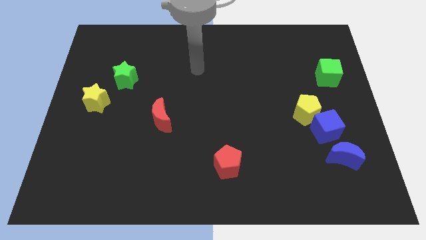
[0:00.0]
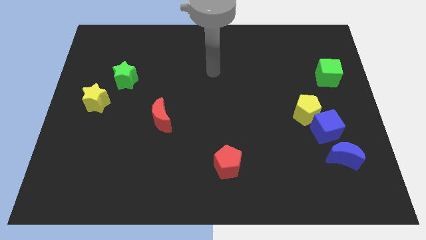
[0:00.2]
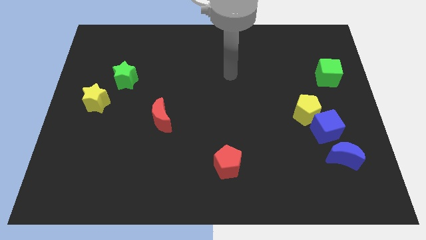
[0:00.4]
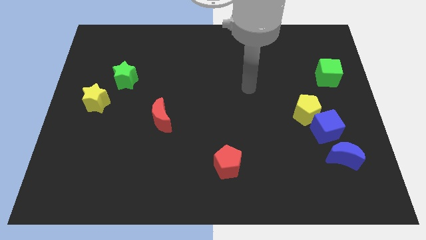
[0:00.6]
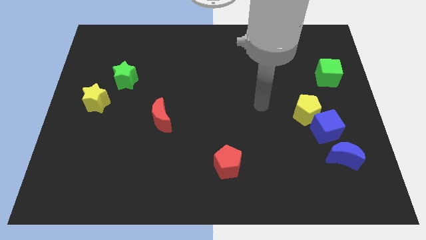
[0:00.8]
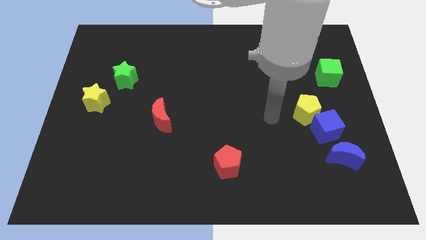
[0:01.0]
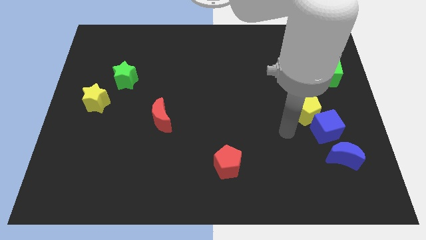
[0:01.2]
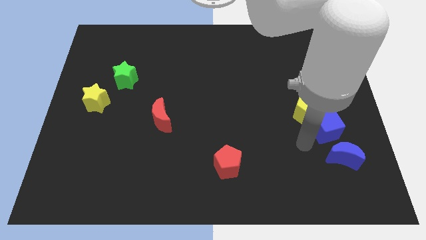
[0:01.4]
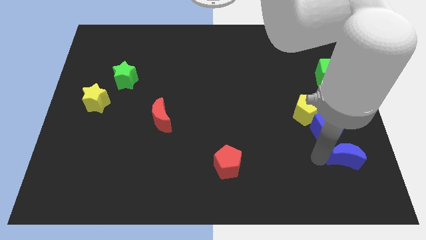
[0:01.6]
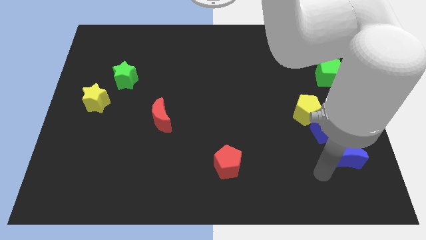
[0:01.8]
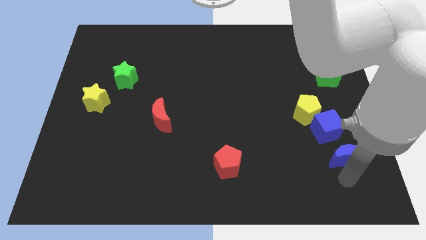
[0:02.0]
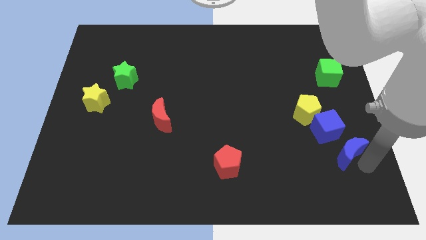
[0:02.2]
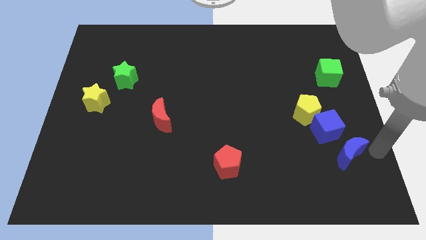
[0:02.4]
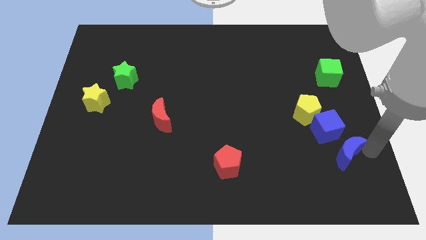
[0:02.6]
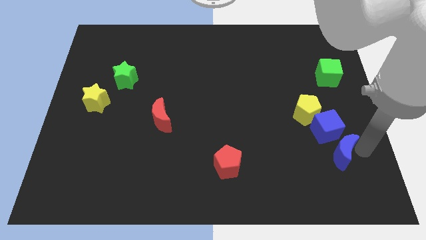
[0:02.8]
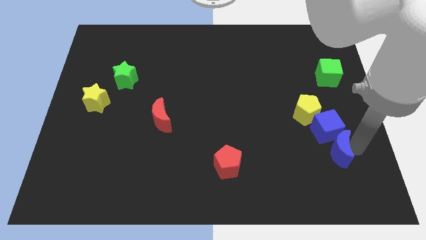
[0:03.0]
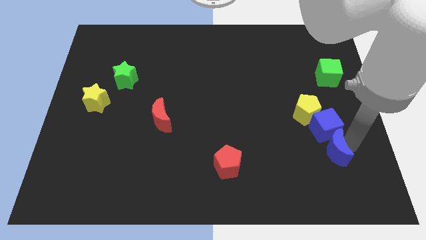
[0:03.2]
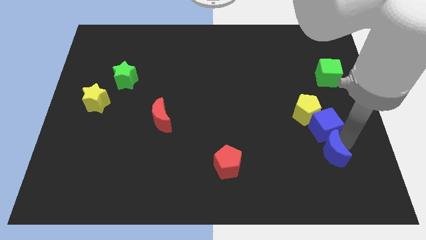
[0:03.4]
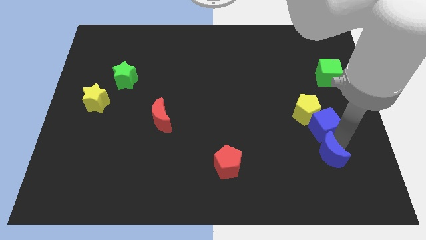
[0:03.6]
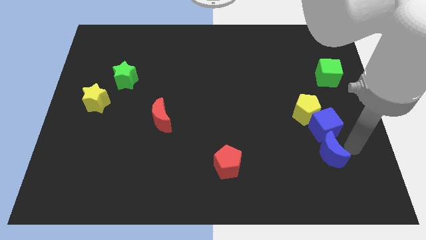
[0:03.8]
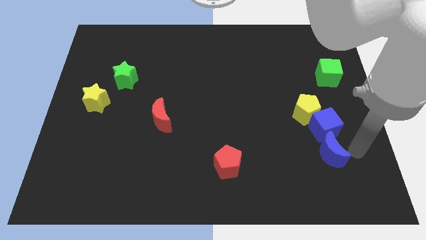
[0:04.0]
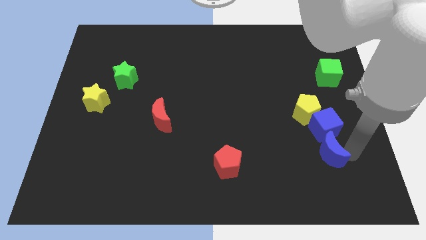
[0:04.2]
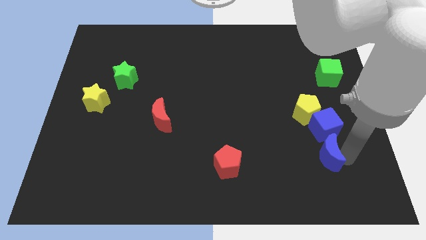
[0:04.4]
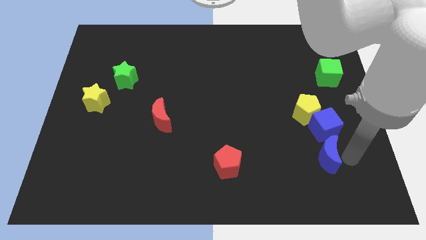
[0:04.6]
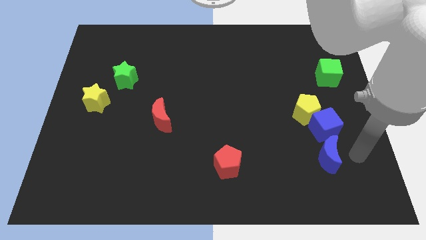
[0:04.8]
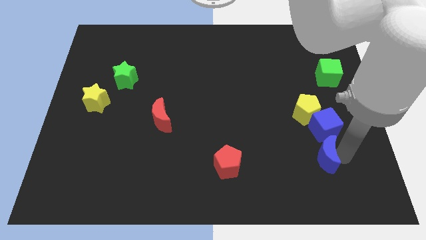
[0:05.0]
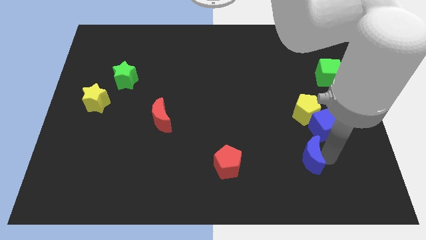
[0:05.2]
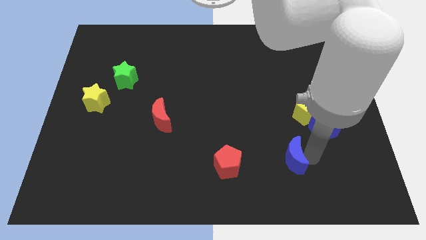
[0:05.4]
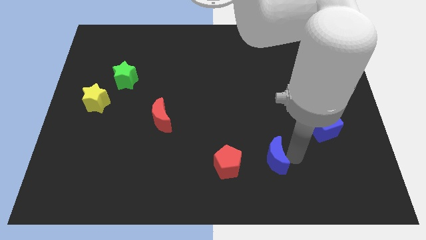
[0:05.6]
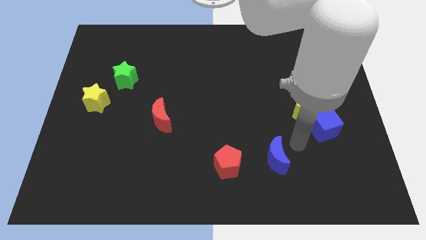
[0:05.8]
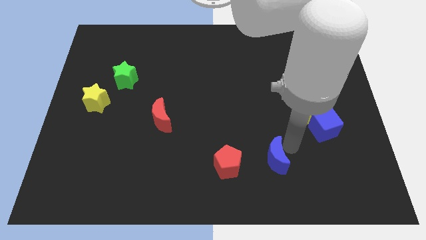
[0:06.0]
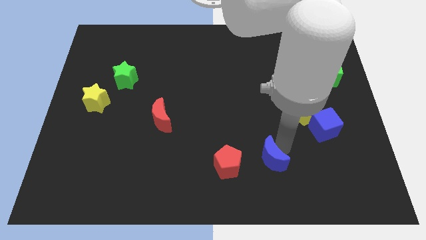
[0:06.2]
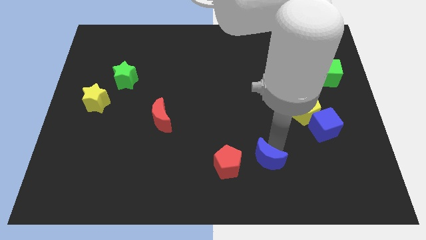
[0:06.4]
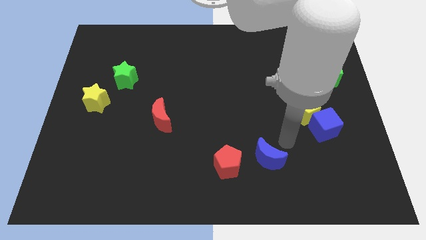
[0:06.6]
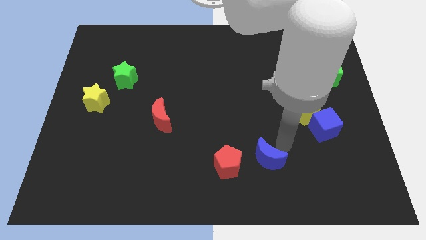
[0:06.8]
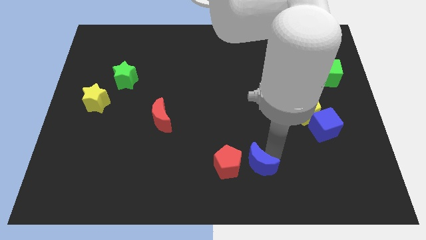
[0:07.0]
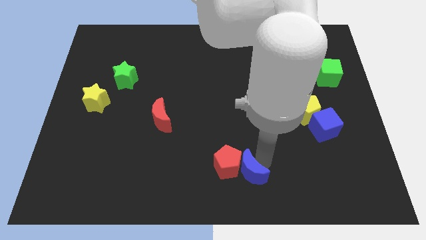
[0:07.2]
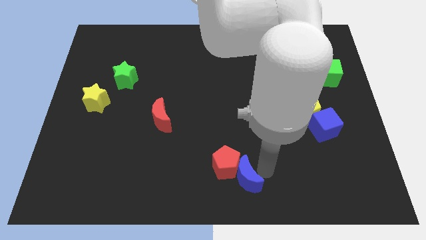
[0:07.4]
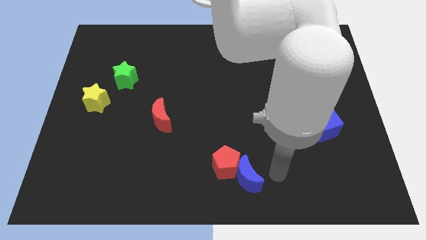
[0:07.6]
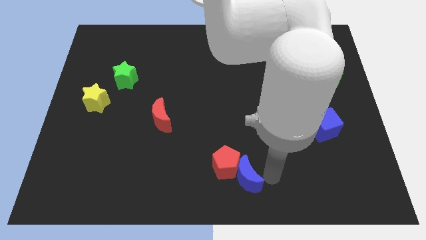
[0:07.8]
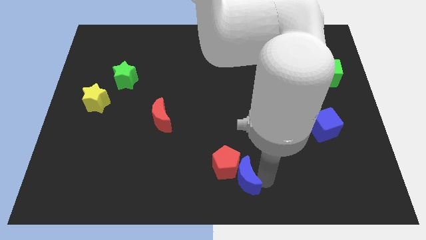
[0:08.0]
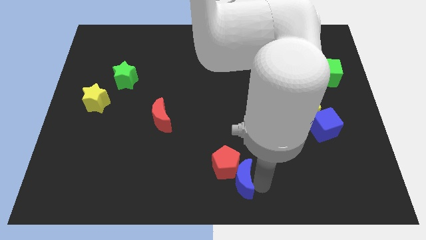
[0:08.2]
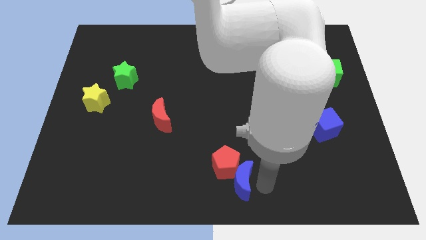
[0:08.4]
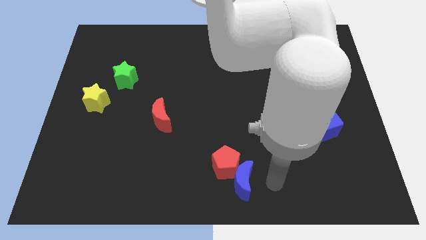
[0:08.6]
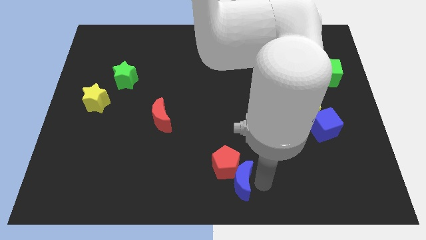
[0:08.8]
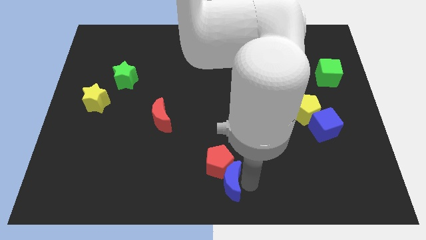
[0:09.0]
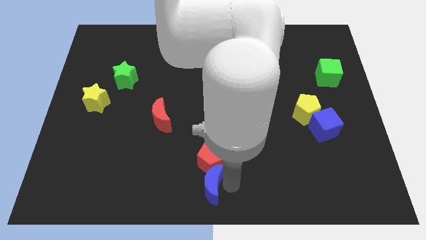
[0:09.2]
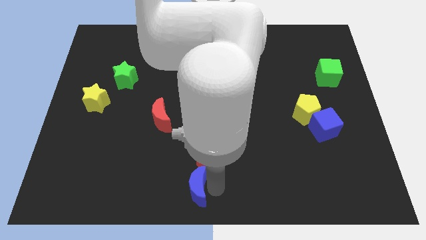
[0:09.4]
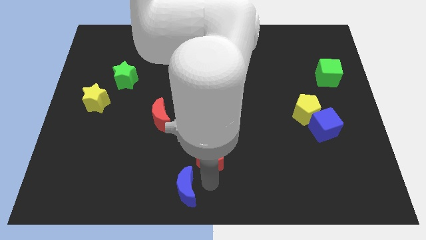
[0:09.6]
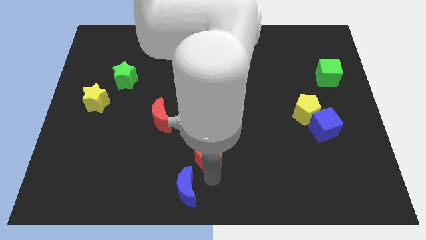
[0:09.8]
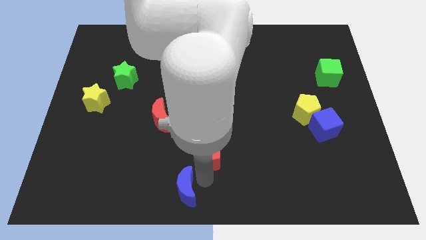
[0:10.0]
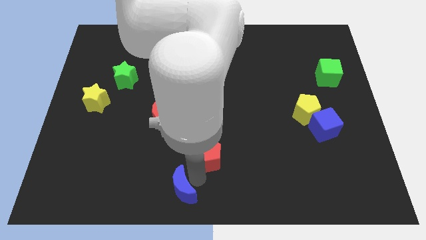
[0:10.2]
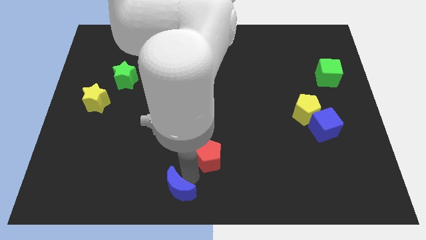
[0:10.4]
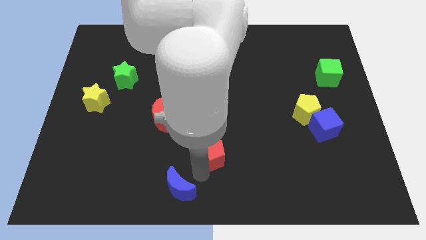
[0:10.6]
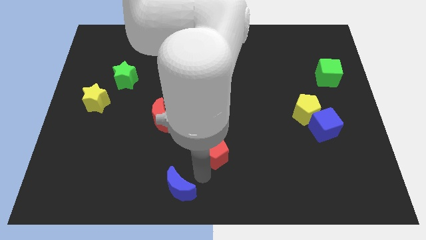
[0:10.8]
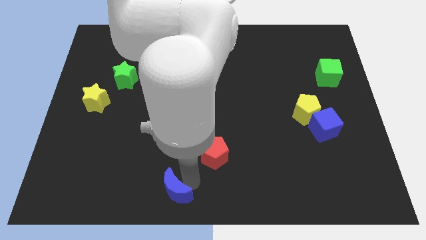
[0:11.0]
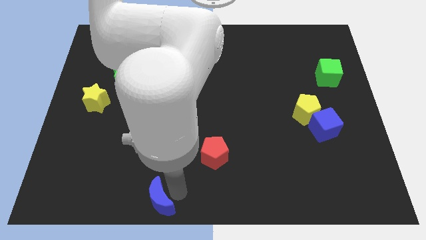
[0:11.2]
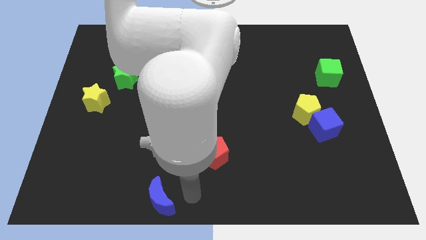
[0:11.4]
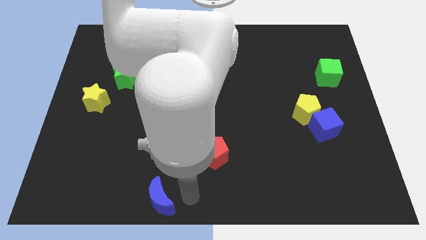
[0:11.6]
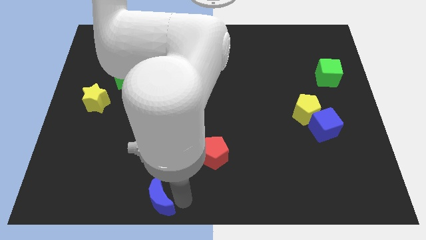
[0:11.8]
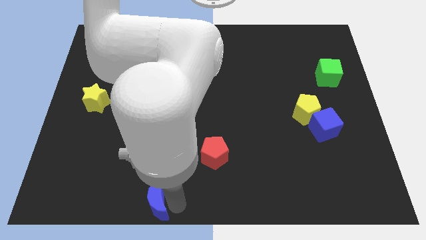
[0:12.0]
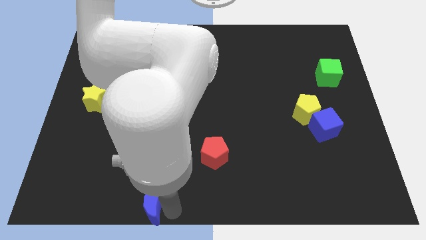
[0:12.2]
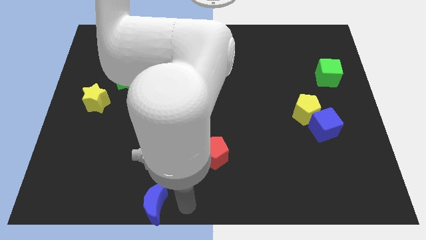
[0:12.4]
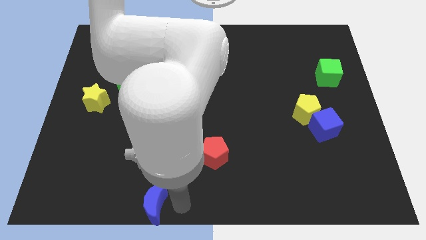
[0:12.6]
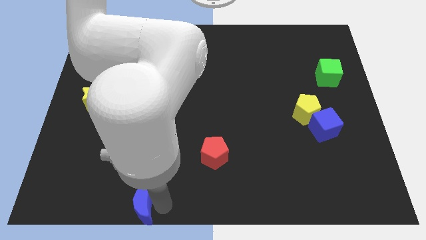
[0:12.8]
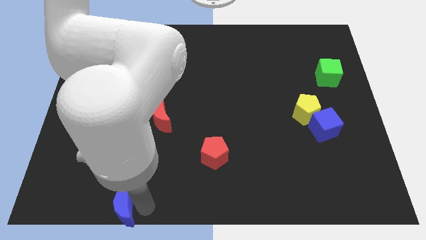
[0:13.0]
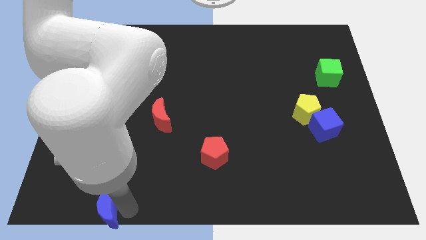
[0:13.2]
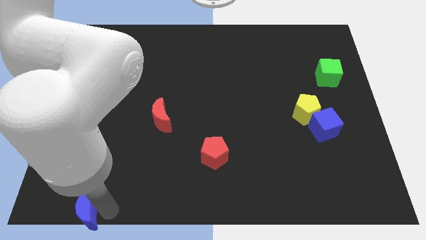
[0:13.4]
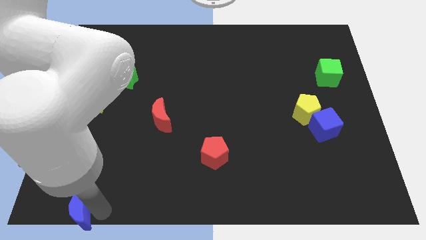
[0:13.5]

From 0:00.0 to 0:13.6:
put the blue moon to the bottom left of the board
